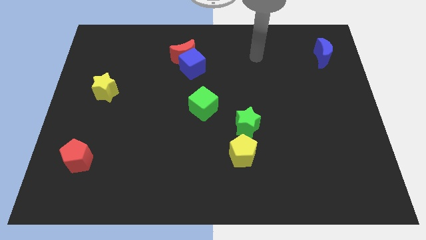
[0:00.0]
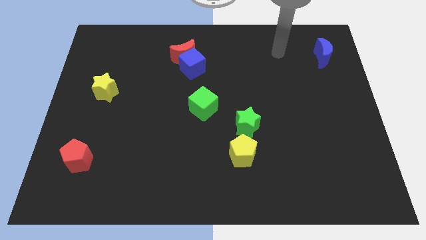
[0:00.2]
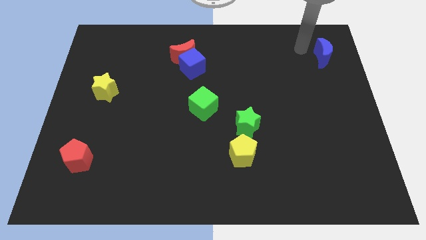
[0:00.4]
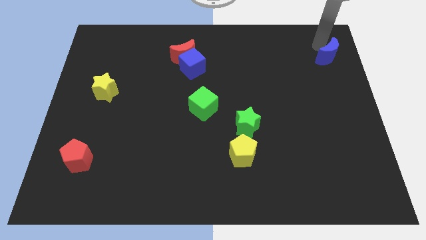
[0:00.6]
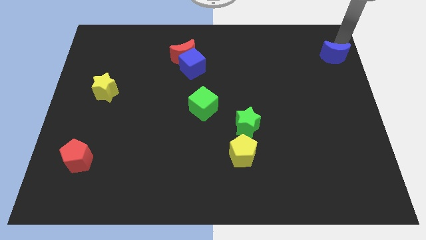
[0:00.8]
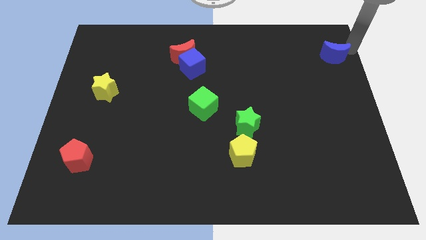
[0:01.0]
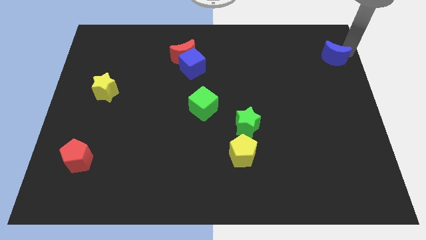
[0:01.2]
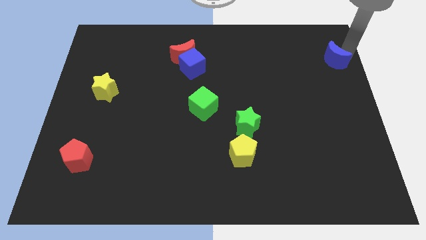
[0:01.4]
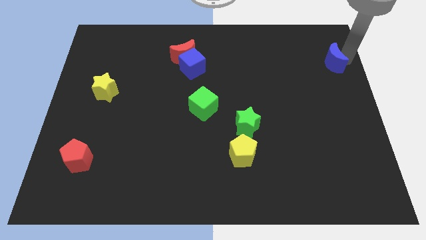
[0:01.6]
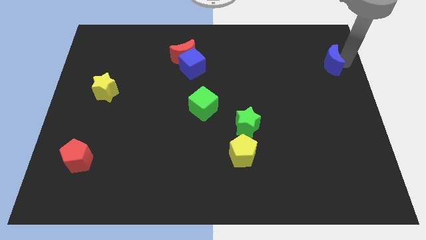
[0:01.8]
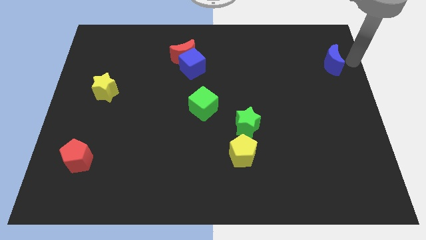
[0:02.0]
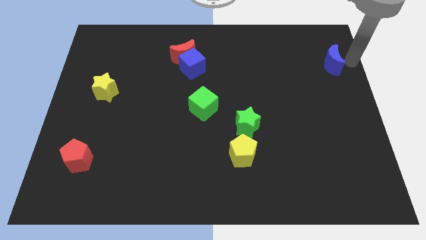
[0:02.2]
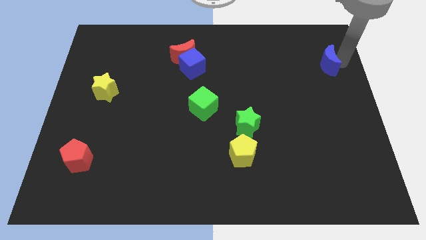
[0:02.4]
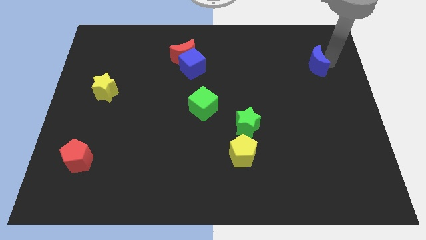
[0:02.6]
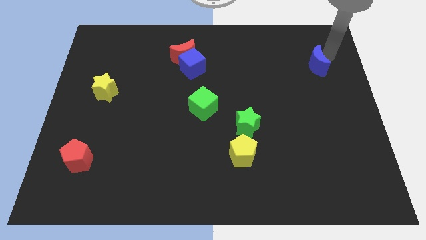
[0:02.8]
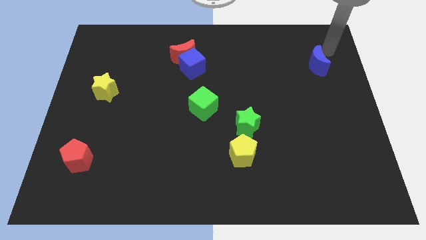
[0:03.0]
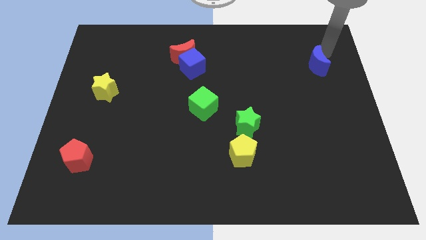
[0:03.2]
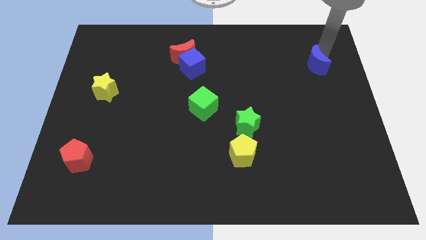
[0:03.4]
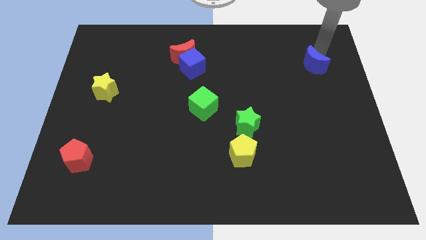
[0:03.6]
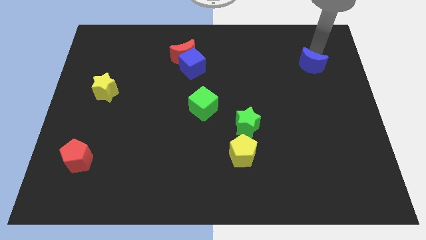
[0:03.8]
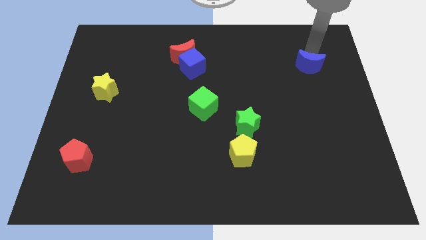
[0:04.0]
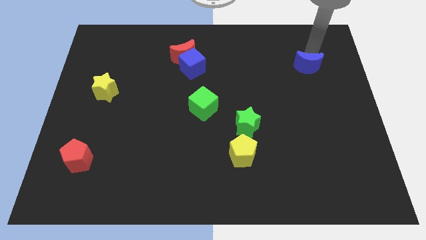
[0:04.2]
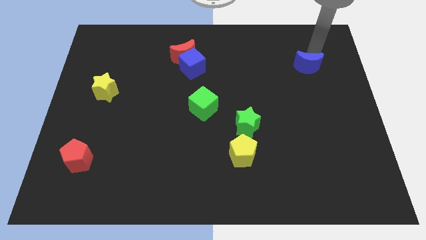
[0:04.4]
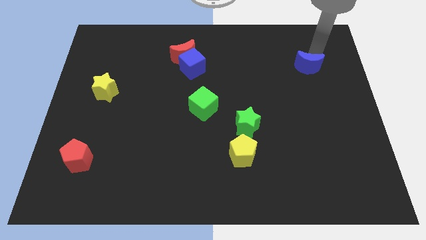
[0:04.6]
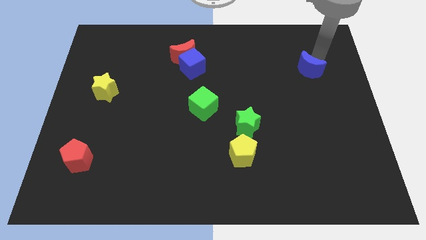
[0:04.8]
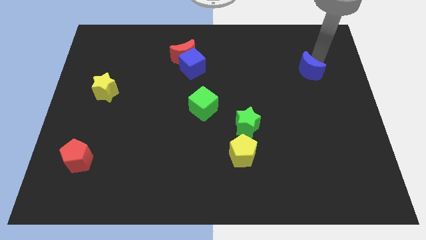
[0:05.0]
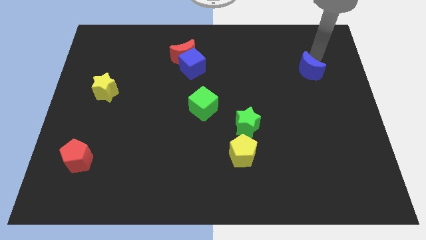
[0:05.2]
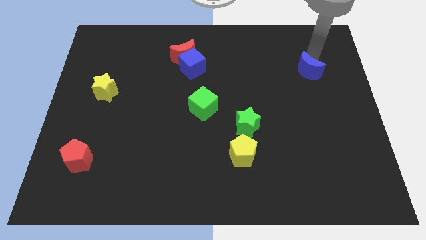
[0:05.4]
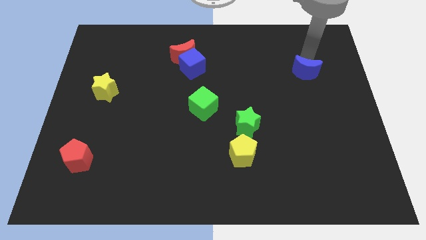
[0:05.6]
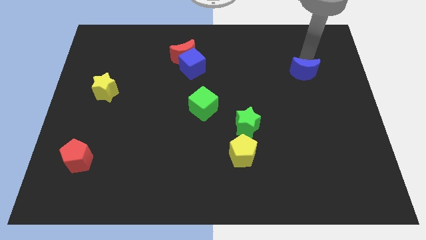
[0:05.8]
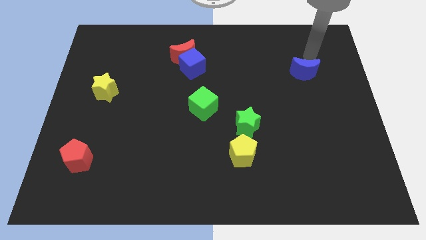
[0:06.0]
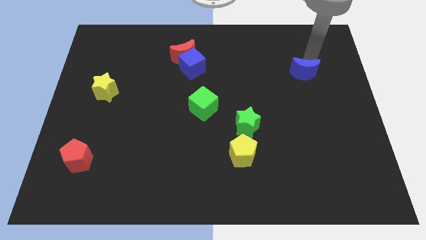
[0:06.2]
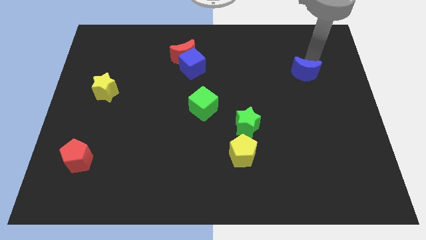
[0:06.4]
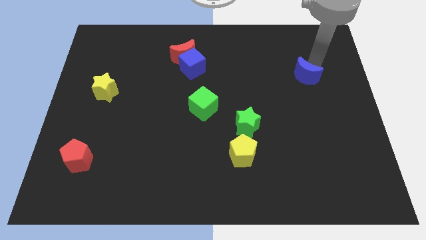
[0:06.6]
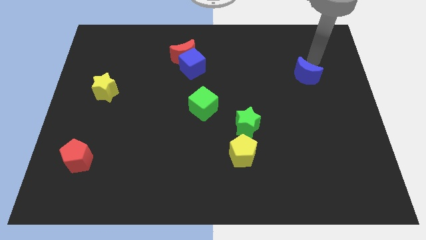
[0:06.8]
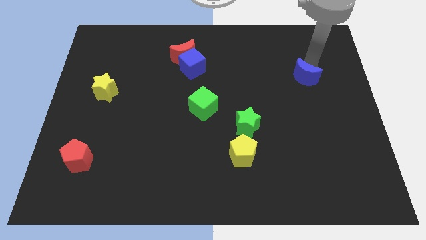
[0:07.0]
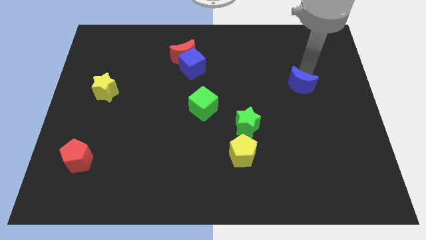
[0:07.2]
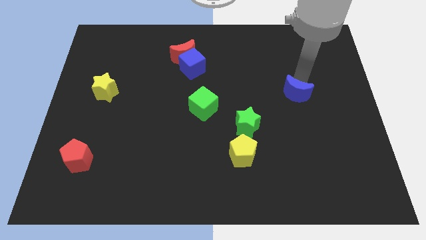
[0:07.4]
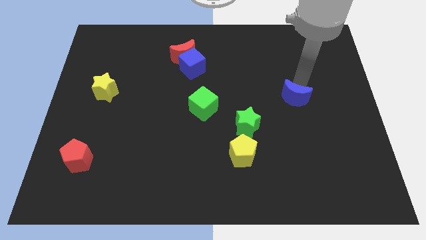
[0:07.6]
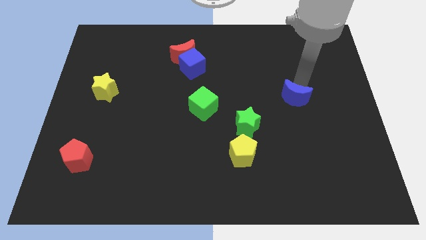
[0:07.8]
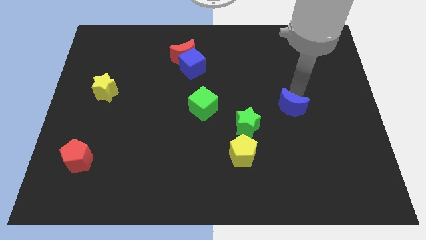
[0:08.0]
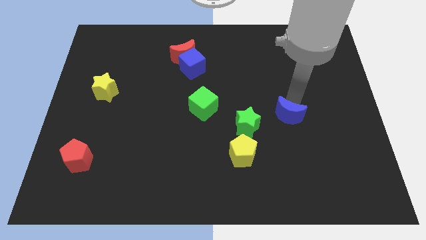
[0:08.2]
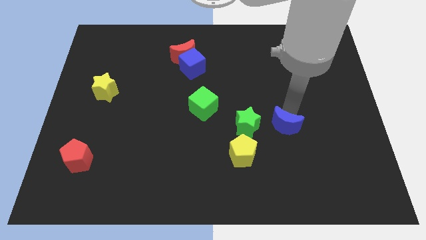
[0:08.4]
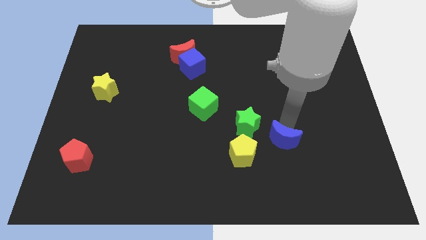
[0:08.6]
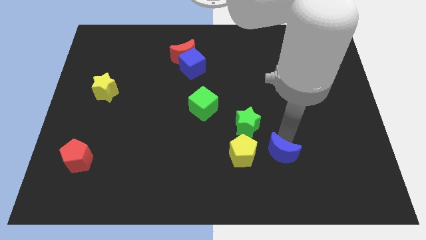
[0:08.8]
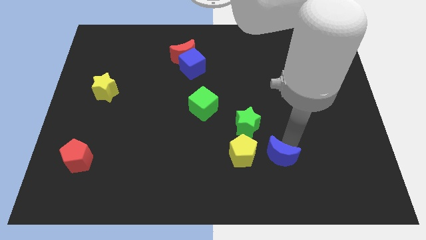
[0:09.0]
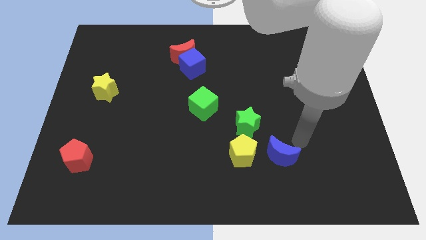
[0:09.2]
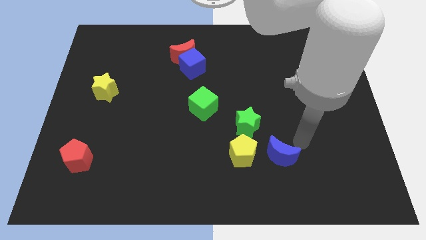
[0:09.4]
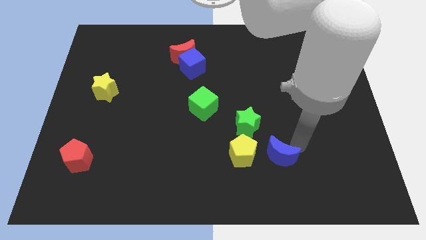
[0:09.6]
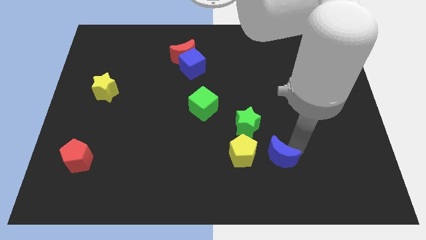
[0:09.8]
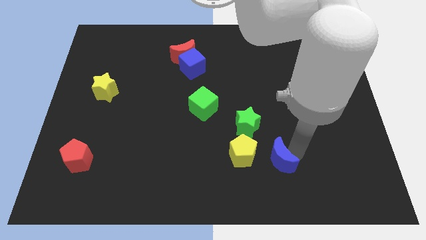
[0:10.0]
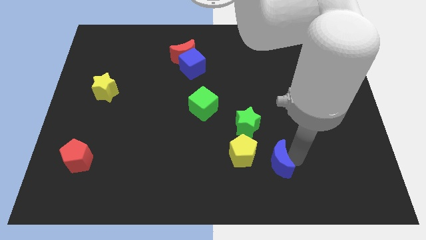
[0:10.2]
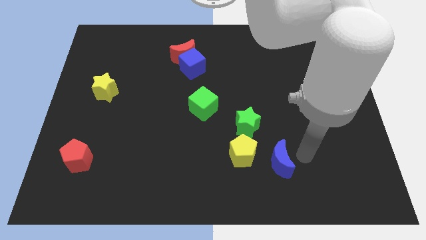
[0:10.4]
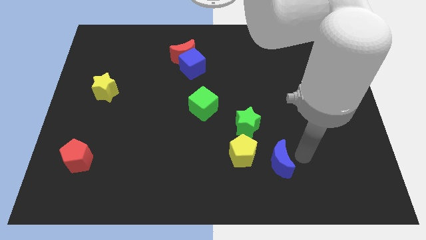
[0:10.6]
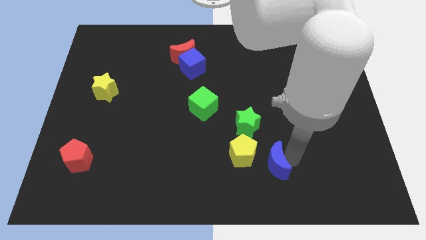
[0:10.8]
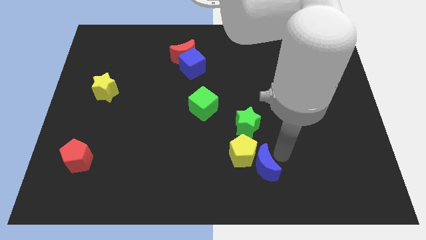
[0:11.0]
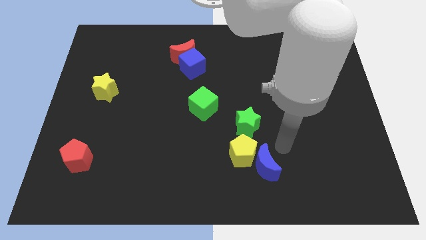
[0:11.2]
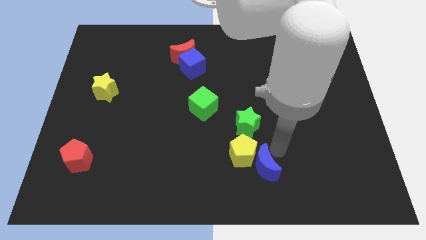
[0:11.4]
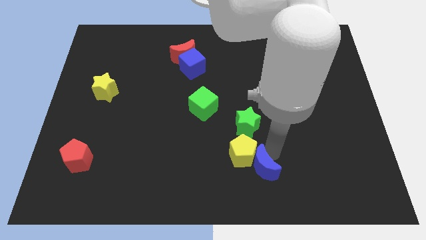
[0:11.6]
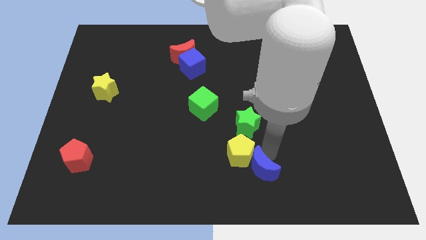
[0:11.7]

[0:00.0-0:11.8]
put the blue moon to the bottom

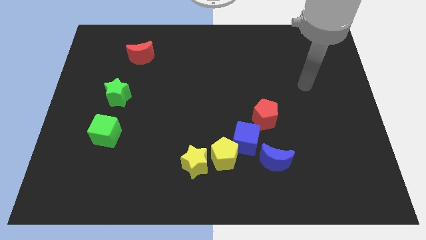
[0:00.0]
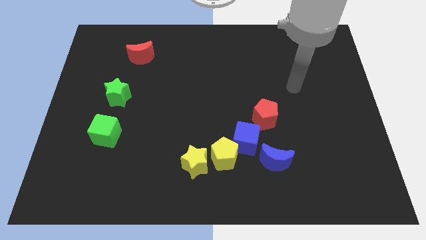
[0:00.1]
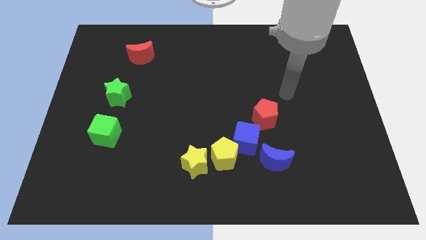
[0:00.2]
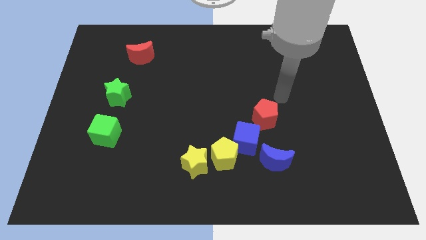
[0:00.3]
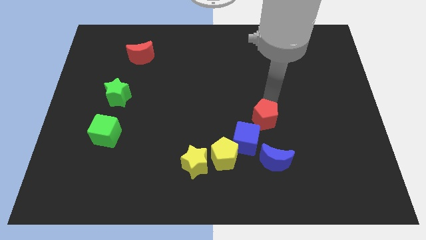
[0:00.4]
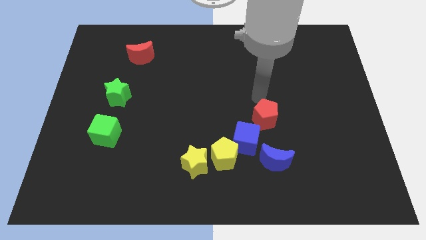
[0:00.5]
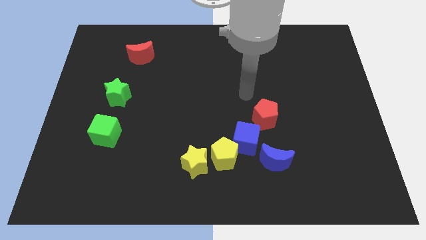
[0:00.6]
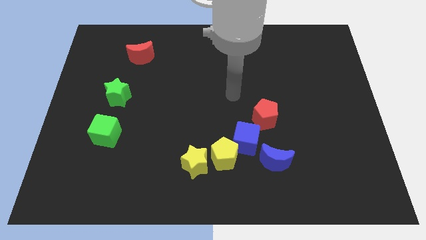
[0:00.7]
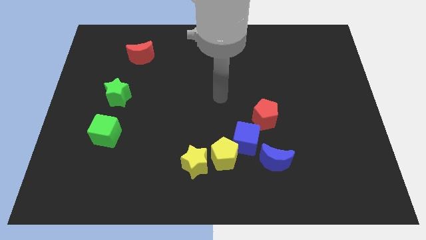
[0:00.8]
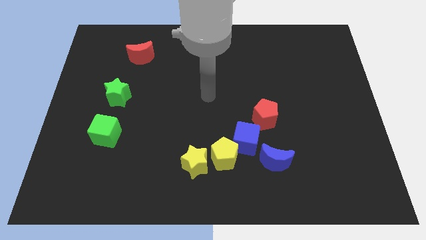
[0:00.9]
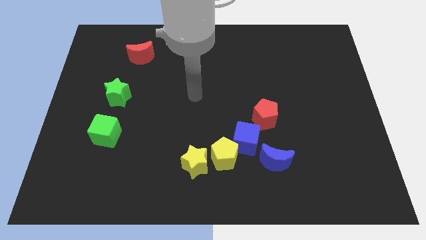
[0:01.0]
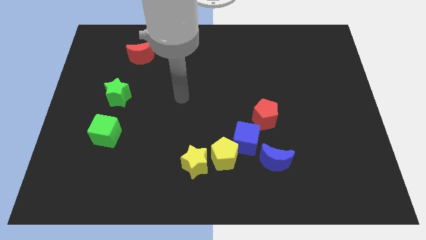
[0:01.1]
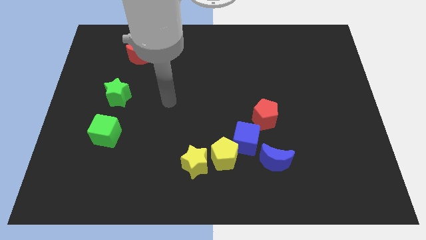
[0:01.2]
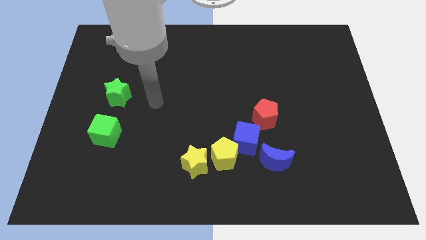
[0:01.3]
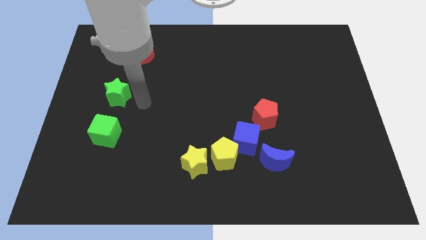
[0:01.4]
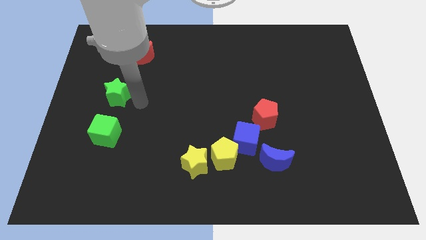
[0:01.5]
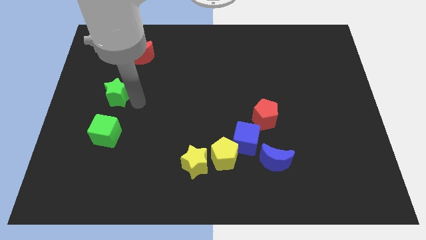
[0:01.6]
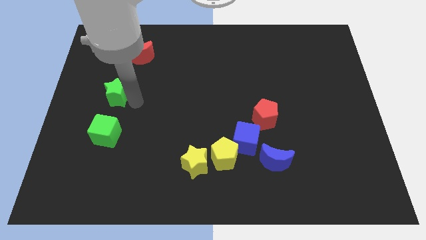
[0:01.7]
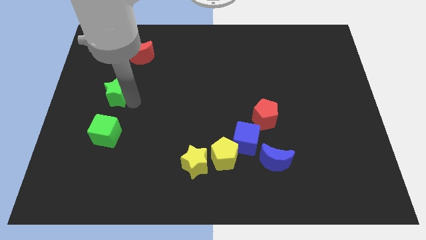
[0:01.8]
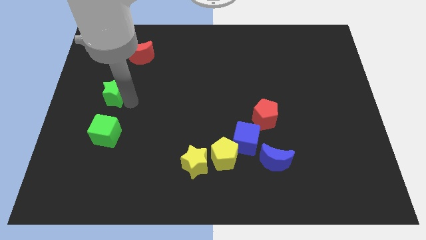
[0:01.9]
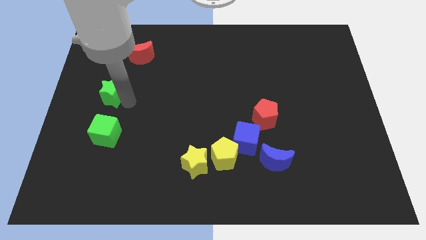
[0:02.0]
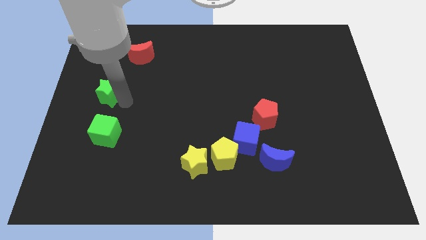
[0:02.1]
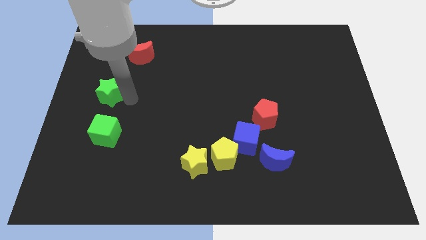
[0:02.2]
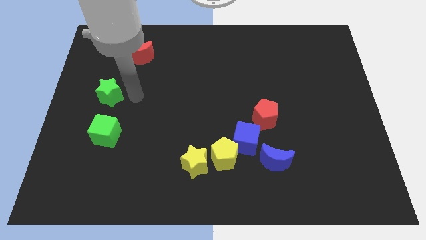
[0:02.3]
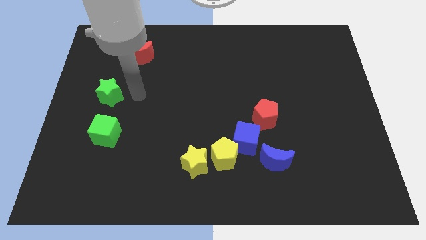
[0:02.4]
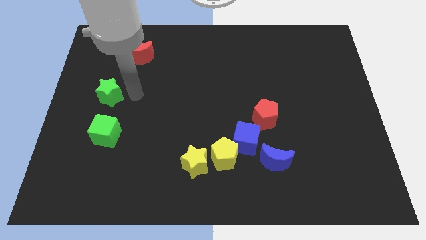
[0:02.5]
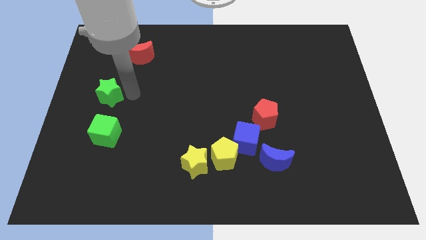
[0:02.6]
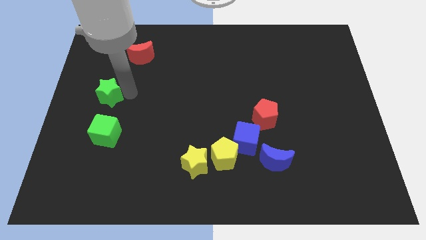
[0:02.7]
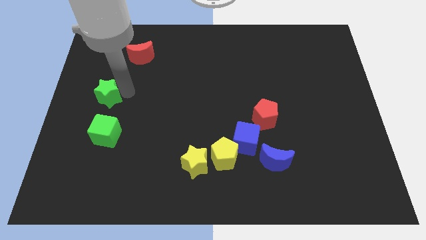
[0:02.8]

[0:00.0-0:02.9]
push the green star to the left side of the board
